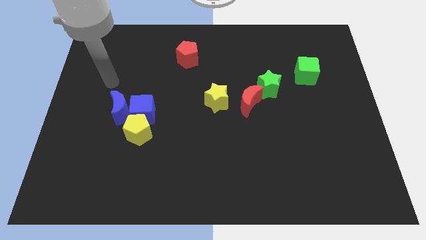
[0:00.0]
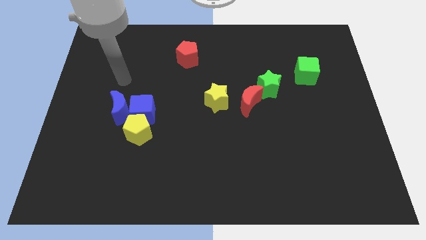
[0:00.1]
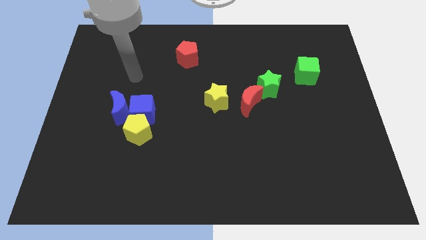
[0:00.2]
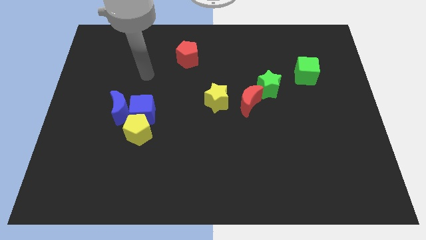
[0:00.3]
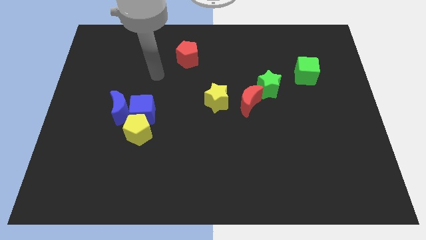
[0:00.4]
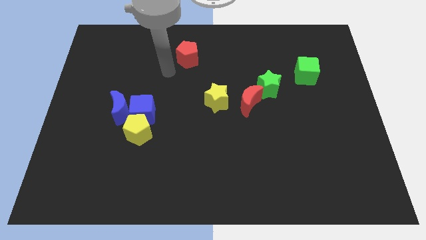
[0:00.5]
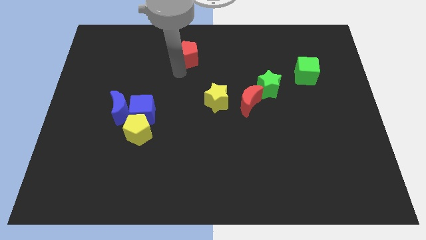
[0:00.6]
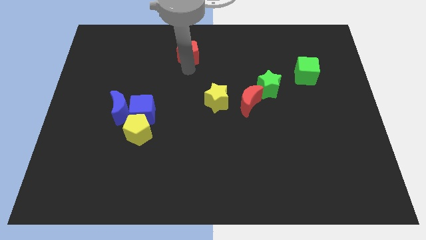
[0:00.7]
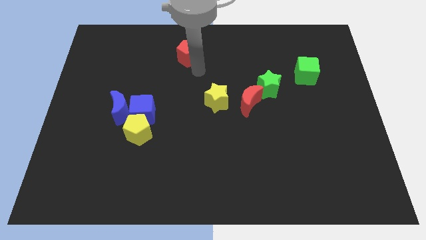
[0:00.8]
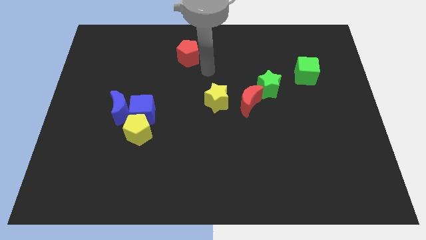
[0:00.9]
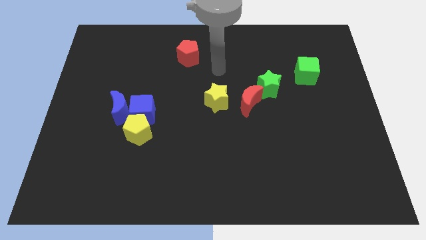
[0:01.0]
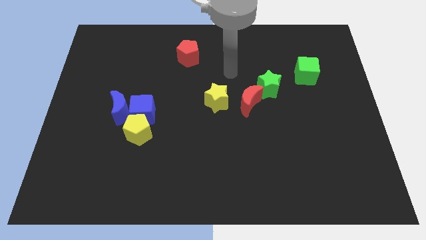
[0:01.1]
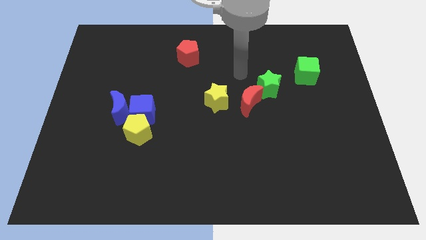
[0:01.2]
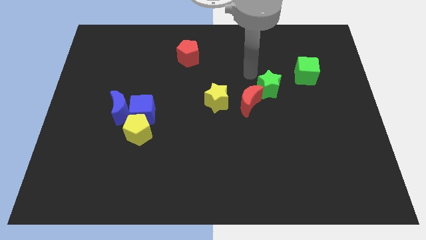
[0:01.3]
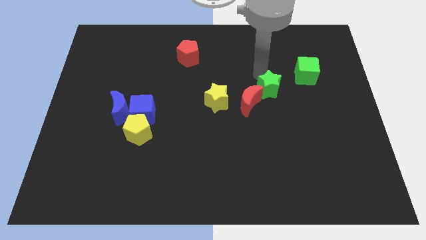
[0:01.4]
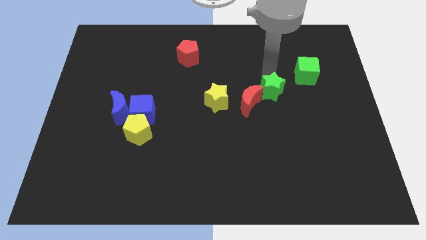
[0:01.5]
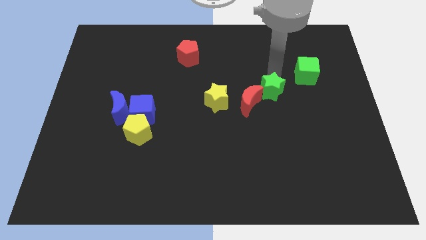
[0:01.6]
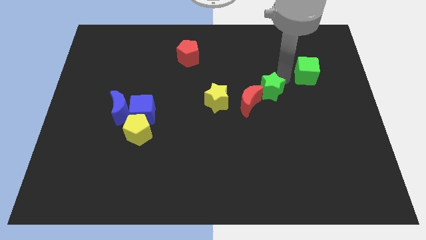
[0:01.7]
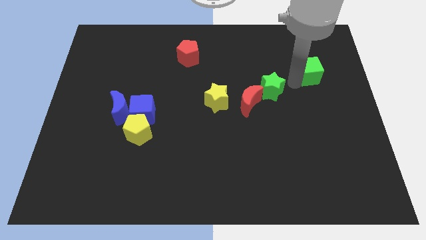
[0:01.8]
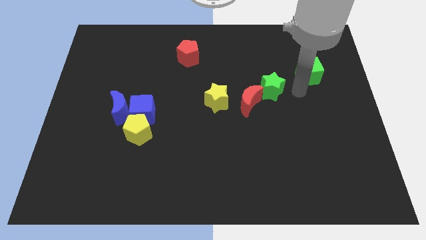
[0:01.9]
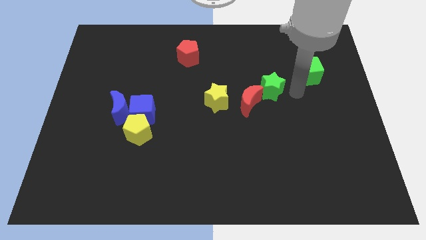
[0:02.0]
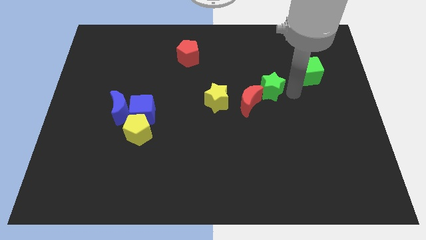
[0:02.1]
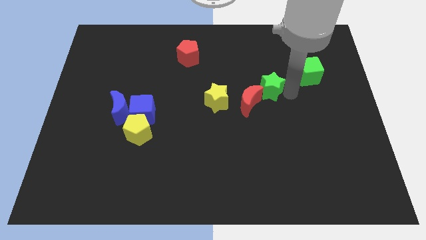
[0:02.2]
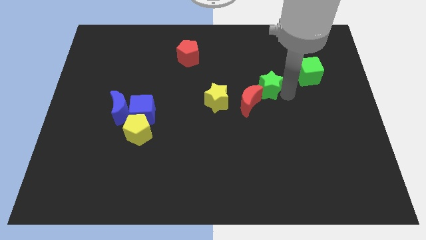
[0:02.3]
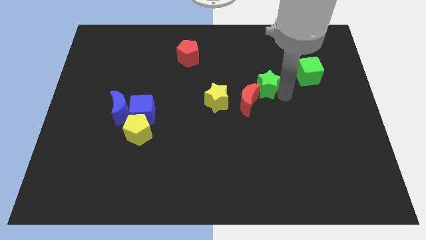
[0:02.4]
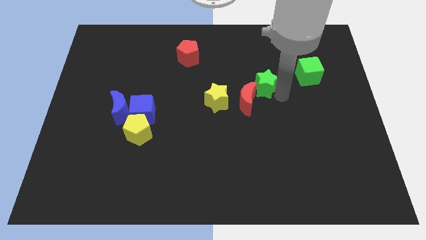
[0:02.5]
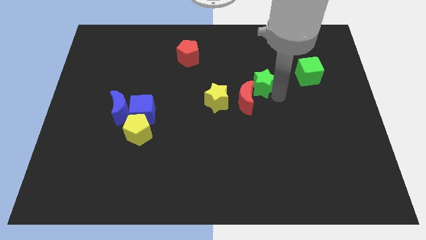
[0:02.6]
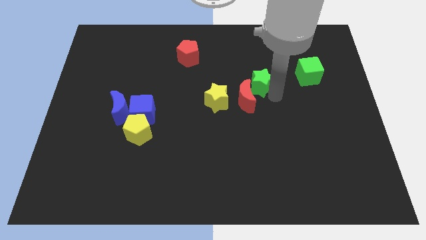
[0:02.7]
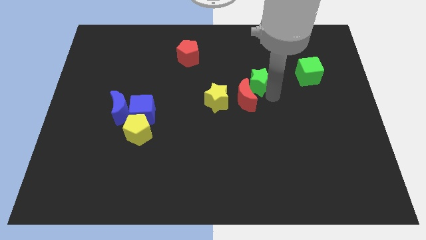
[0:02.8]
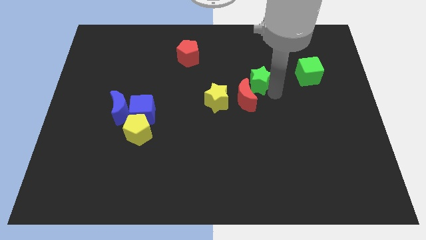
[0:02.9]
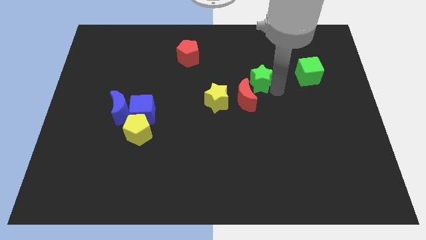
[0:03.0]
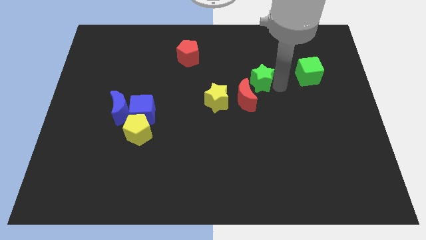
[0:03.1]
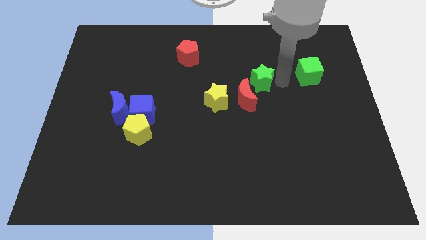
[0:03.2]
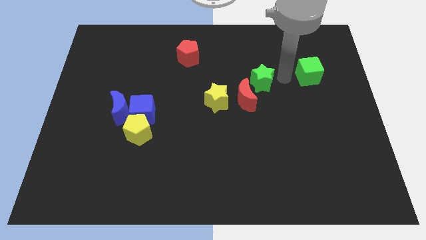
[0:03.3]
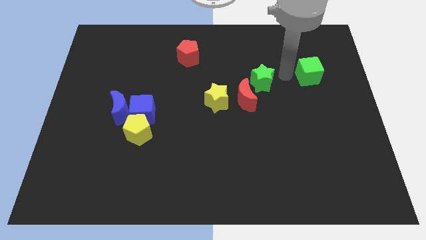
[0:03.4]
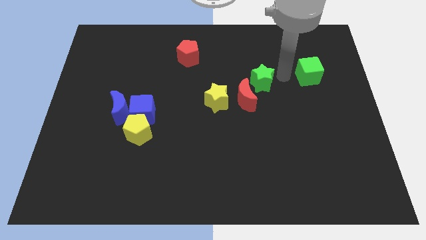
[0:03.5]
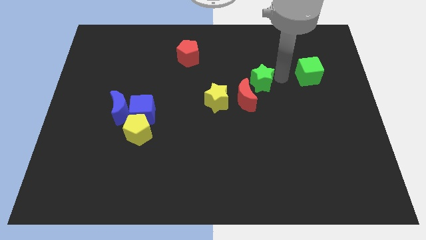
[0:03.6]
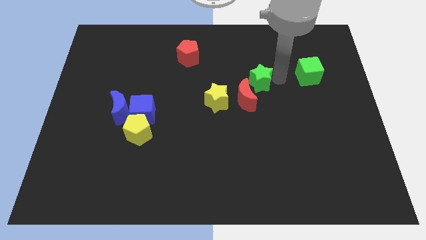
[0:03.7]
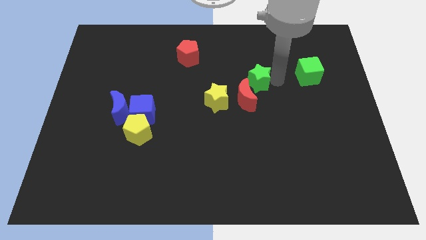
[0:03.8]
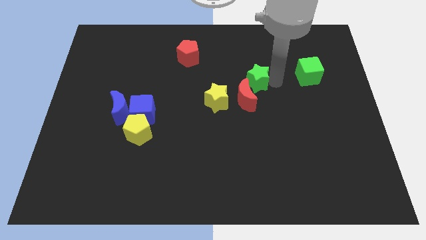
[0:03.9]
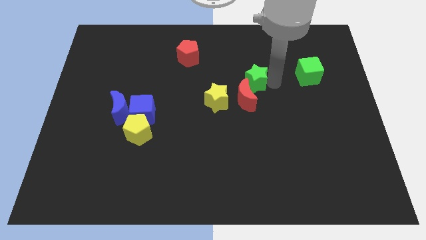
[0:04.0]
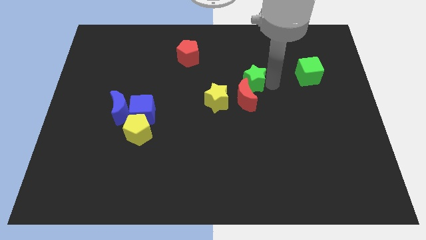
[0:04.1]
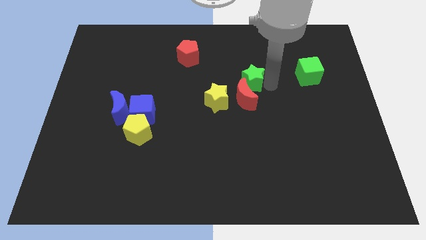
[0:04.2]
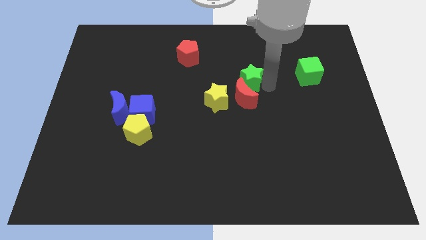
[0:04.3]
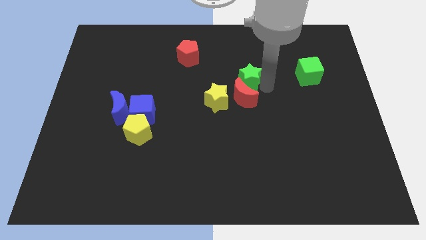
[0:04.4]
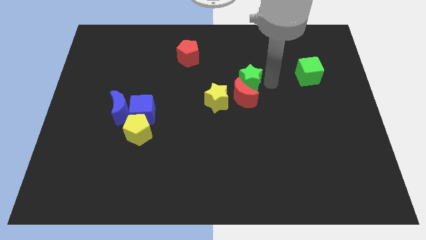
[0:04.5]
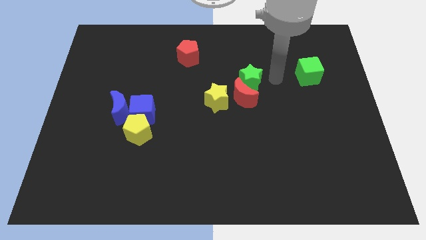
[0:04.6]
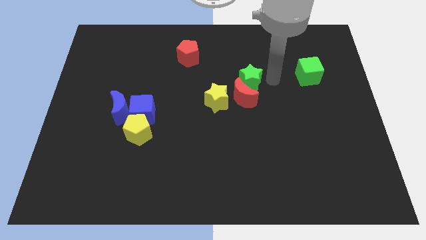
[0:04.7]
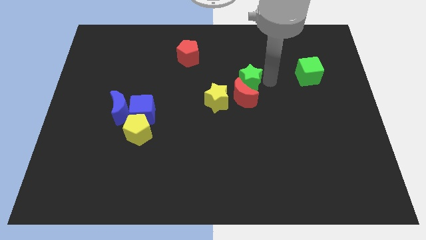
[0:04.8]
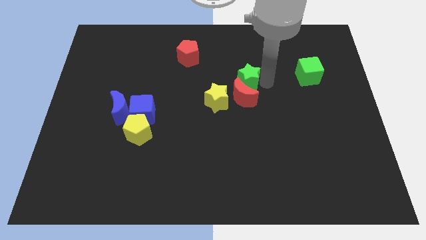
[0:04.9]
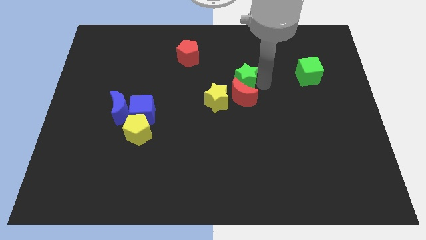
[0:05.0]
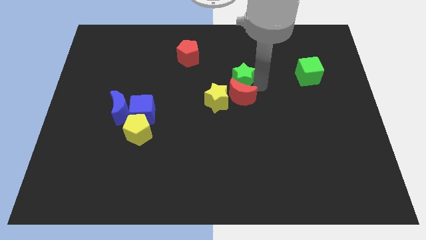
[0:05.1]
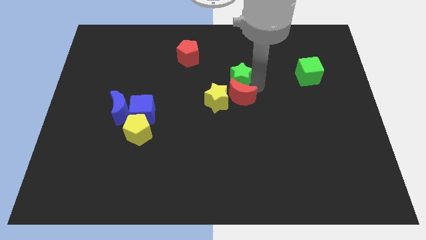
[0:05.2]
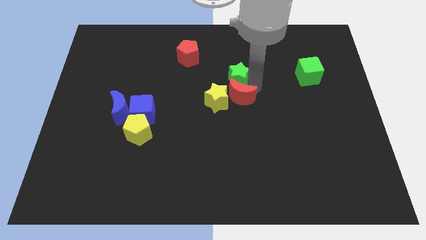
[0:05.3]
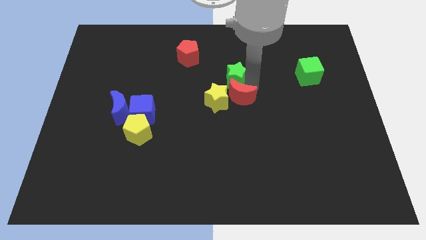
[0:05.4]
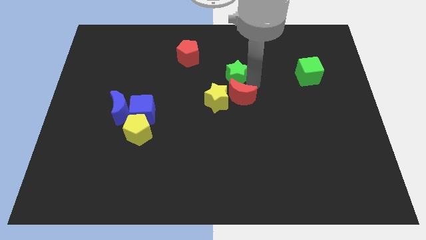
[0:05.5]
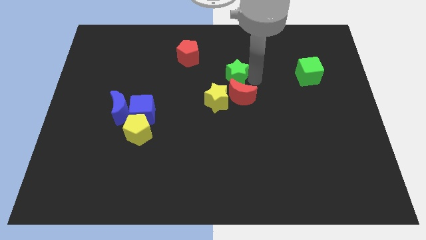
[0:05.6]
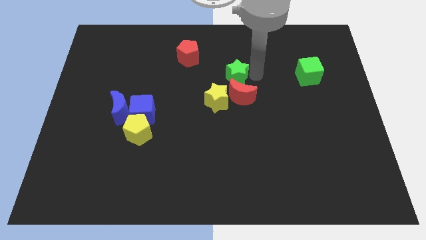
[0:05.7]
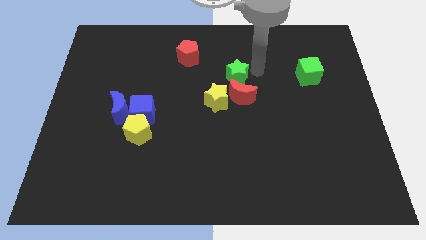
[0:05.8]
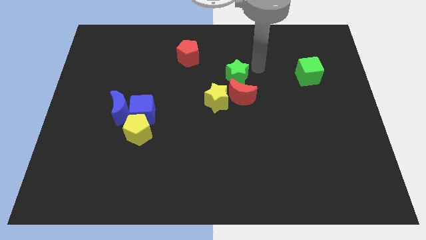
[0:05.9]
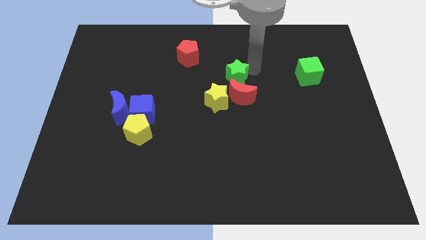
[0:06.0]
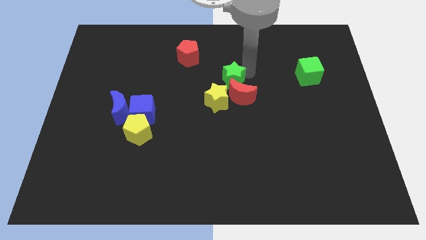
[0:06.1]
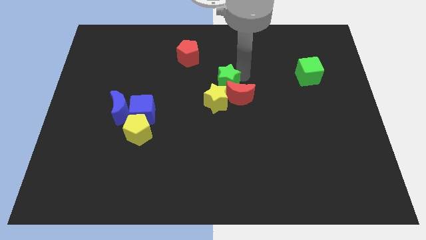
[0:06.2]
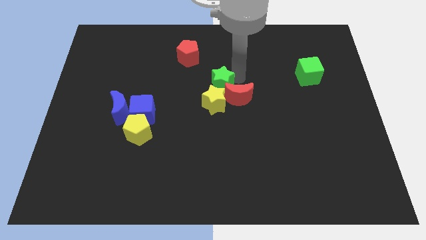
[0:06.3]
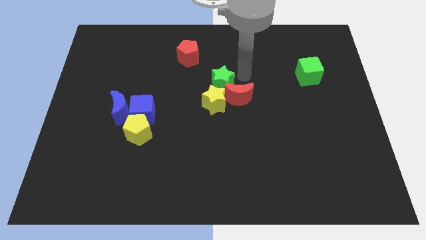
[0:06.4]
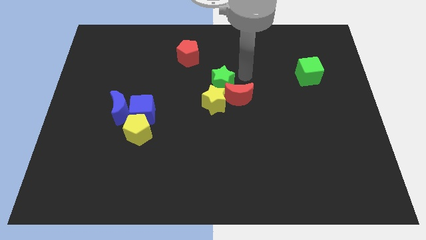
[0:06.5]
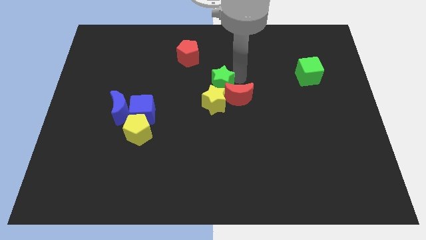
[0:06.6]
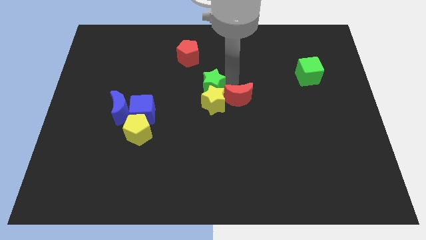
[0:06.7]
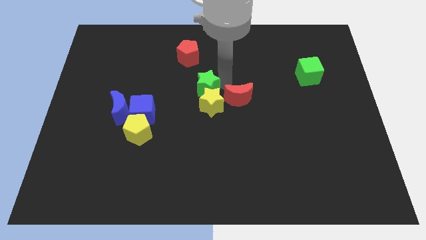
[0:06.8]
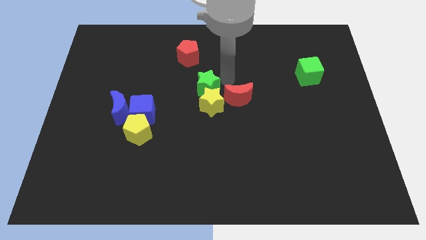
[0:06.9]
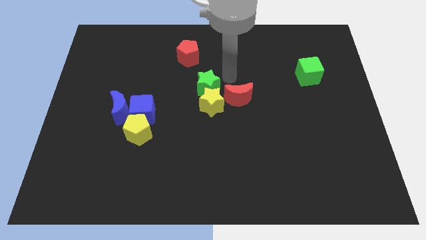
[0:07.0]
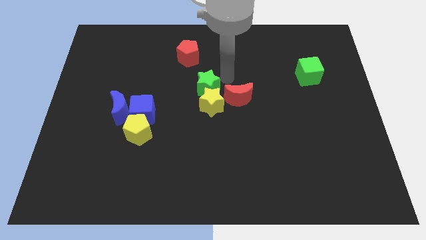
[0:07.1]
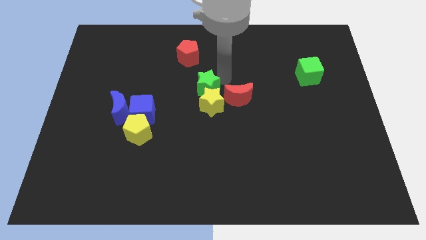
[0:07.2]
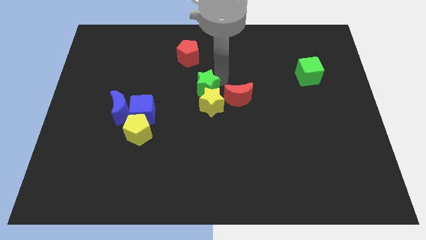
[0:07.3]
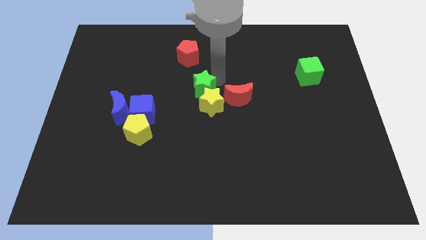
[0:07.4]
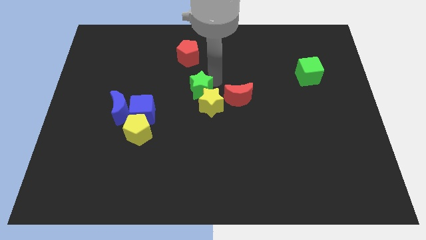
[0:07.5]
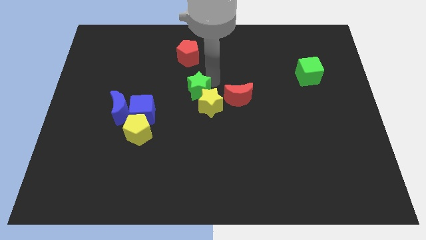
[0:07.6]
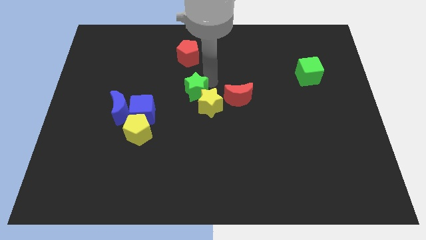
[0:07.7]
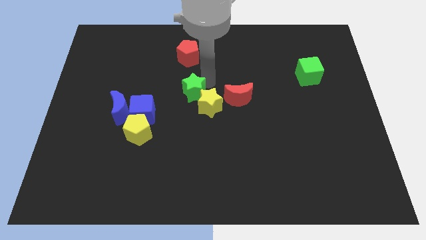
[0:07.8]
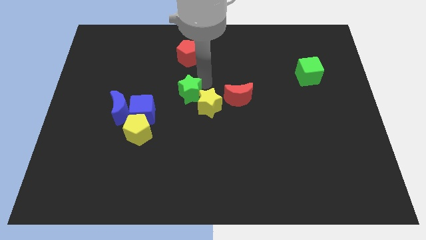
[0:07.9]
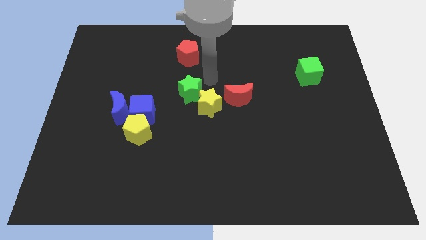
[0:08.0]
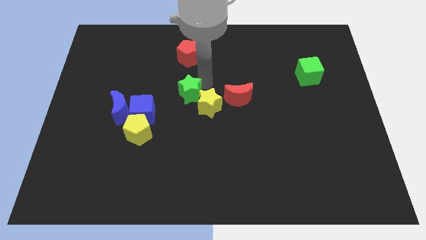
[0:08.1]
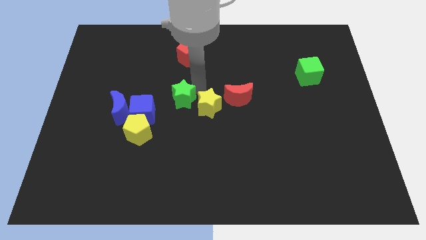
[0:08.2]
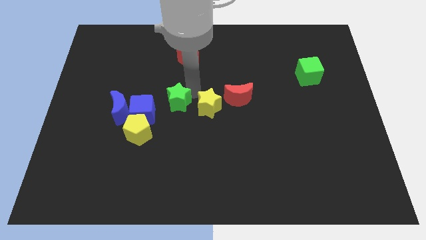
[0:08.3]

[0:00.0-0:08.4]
slide the green star to the top right of the yellow pentagon
